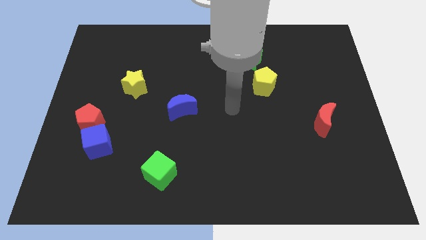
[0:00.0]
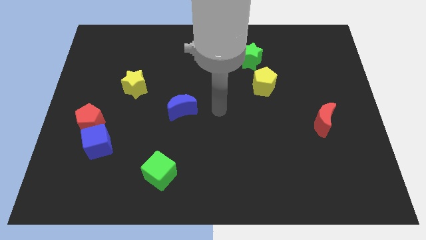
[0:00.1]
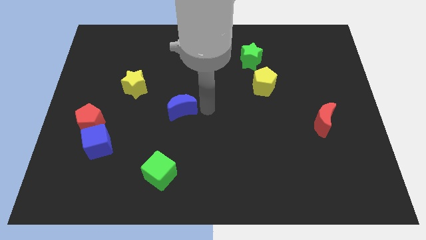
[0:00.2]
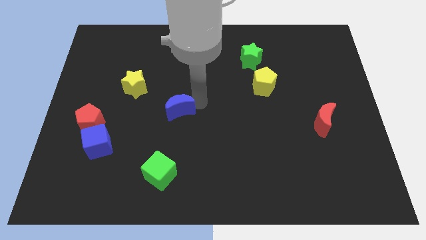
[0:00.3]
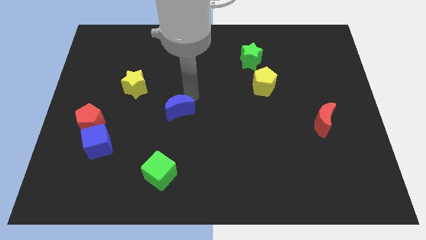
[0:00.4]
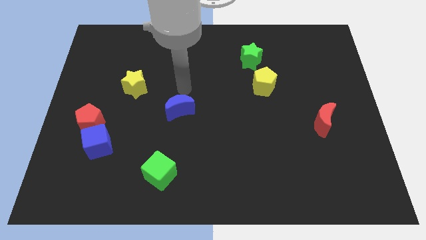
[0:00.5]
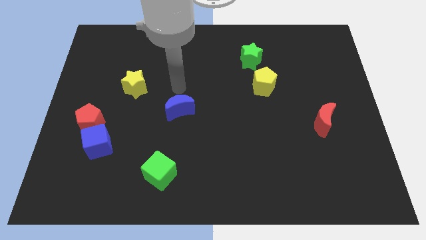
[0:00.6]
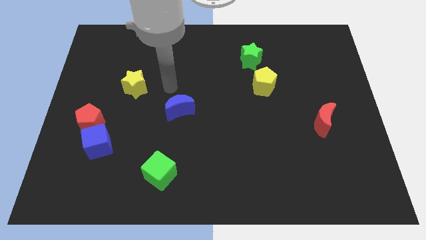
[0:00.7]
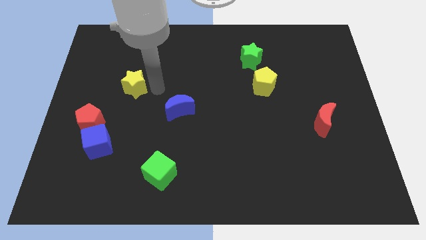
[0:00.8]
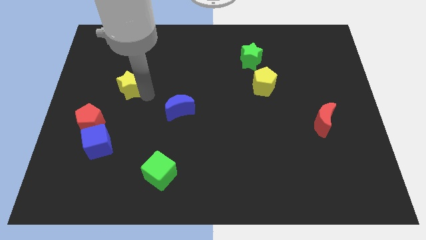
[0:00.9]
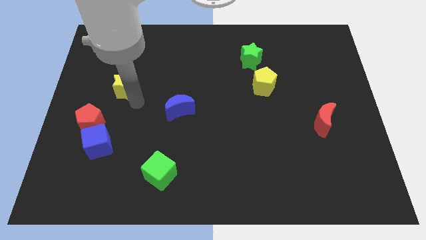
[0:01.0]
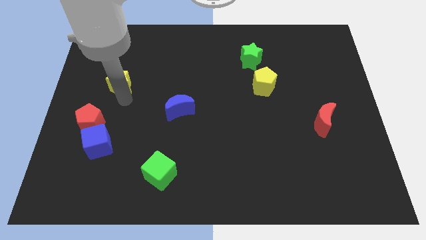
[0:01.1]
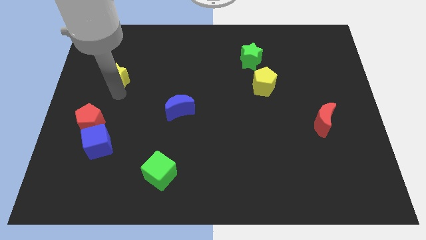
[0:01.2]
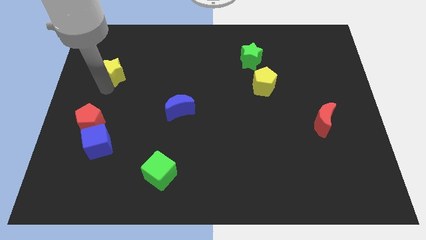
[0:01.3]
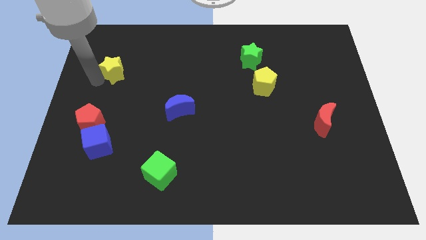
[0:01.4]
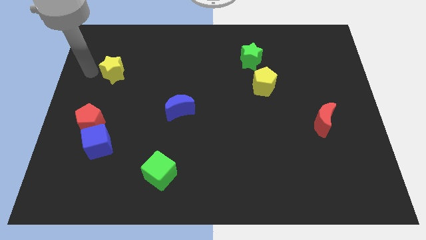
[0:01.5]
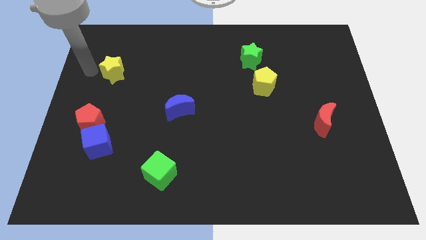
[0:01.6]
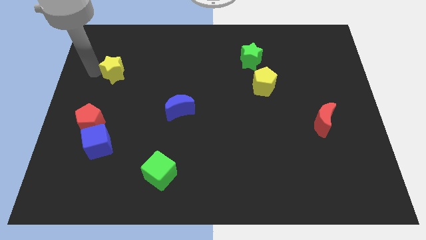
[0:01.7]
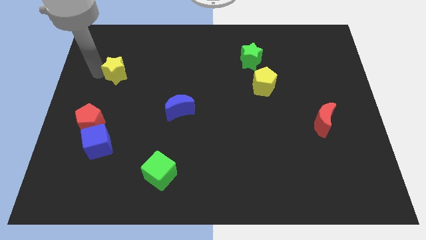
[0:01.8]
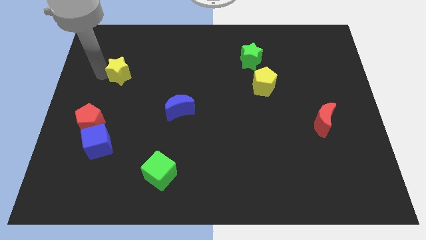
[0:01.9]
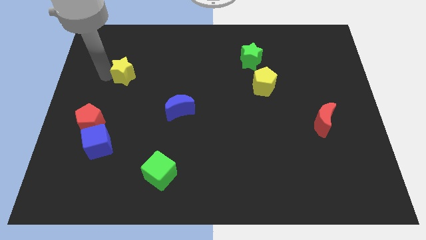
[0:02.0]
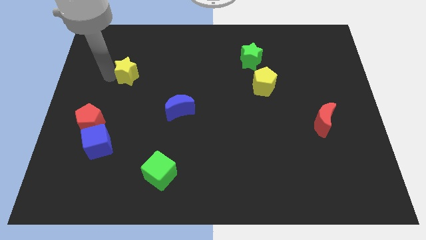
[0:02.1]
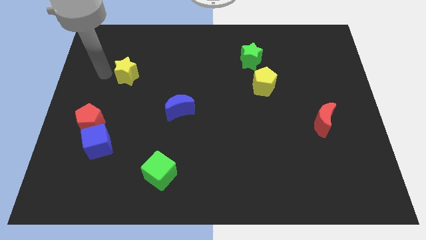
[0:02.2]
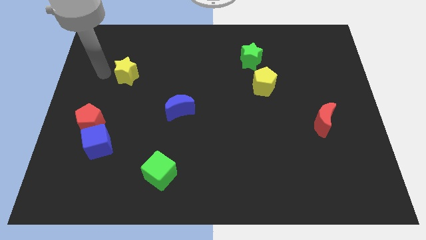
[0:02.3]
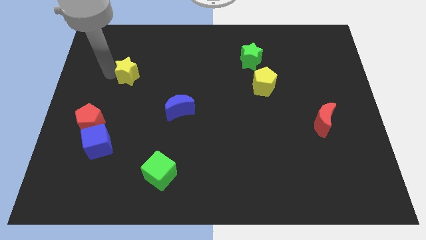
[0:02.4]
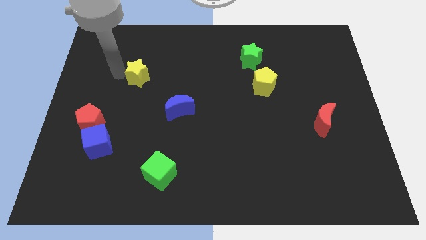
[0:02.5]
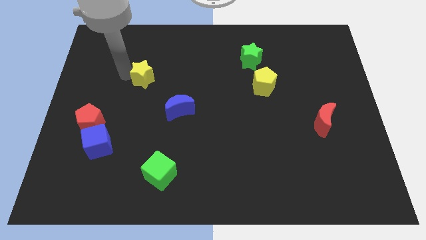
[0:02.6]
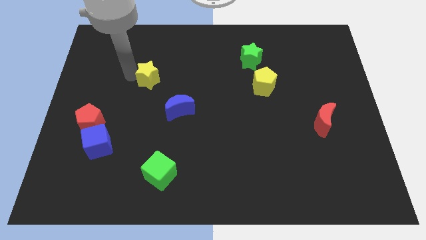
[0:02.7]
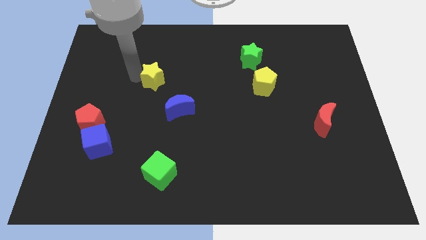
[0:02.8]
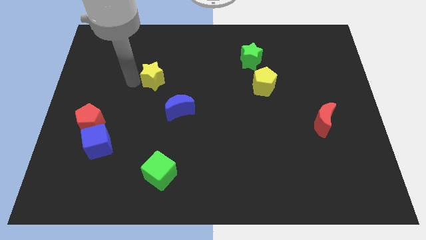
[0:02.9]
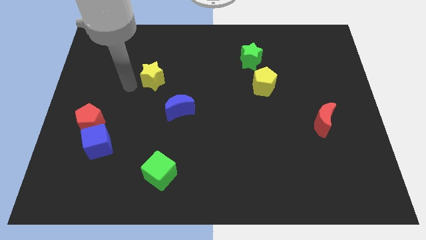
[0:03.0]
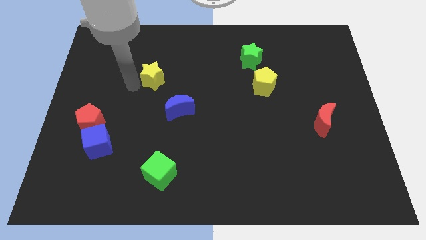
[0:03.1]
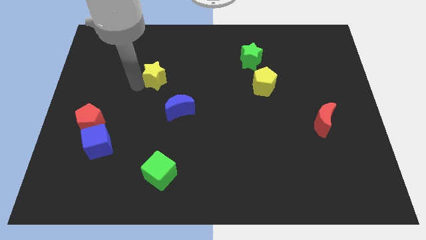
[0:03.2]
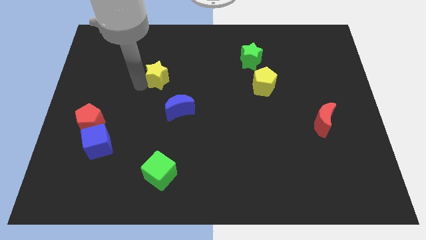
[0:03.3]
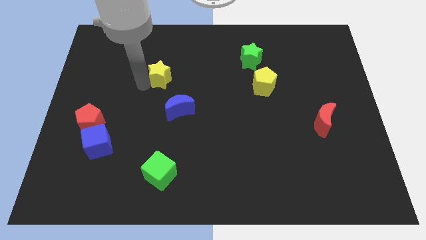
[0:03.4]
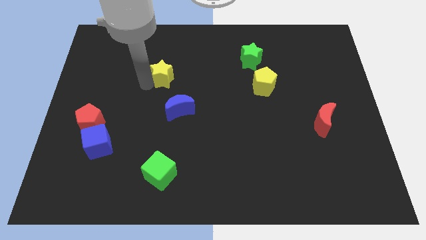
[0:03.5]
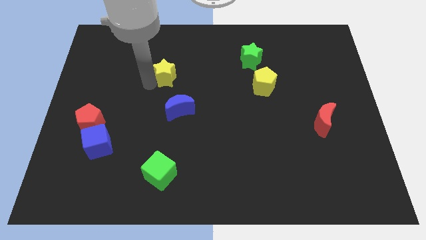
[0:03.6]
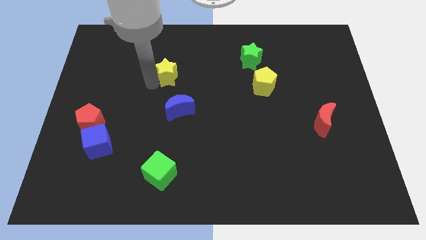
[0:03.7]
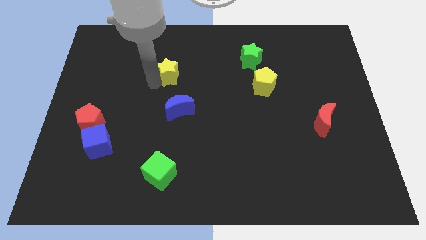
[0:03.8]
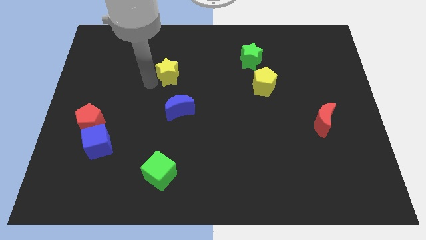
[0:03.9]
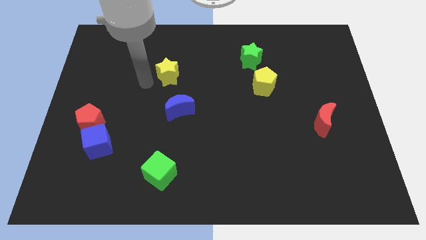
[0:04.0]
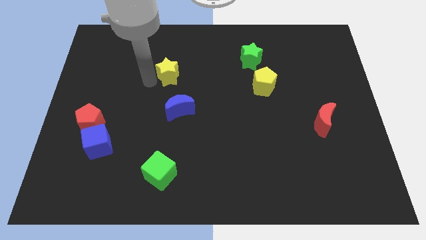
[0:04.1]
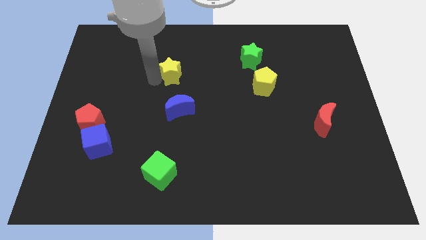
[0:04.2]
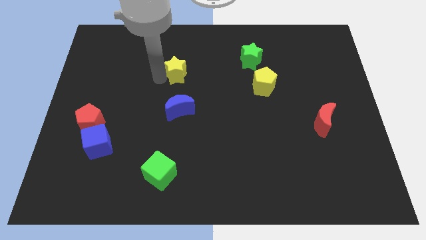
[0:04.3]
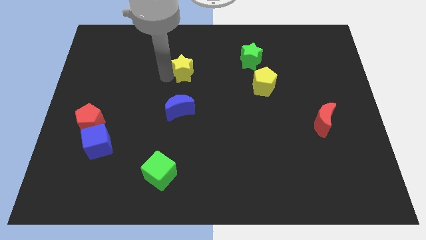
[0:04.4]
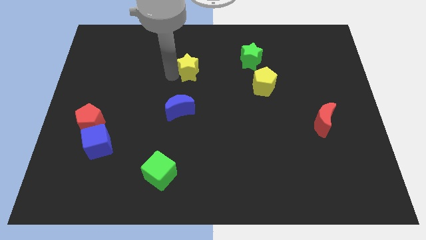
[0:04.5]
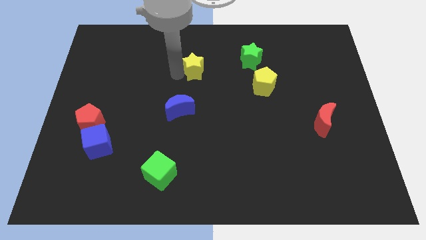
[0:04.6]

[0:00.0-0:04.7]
put the yellow star left of the green star

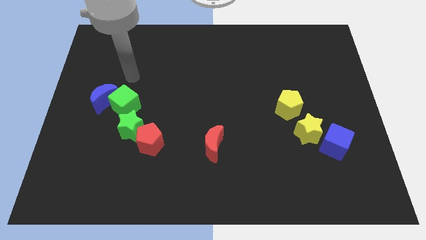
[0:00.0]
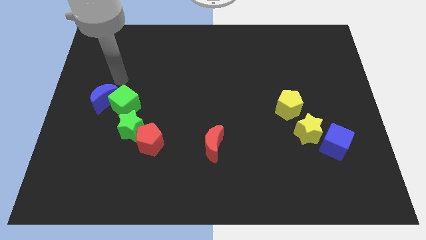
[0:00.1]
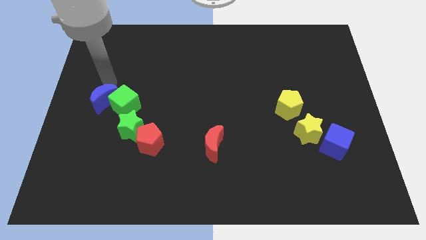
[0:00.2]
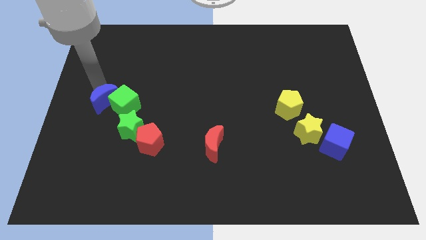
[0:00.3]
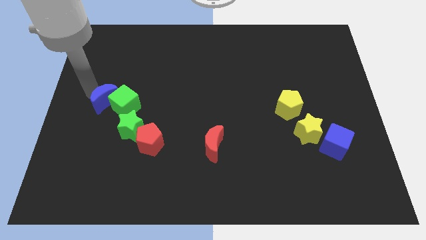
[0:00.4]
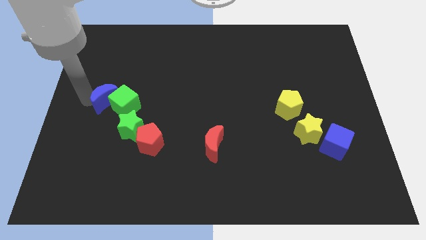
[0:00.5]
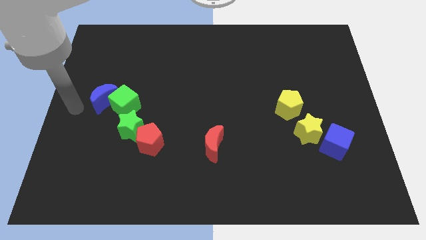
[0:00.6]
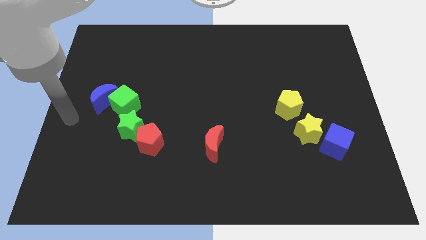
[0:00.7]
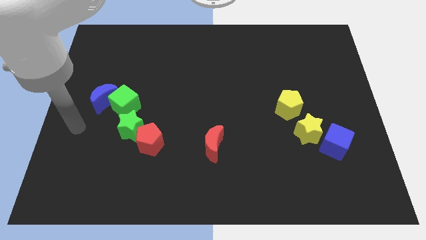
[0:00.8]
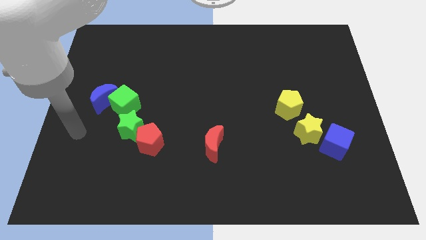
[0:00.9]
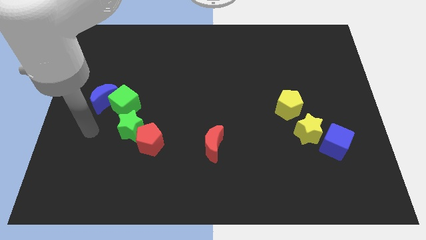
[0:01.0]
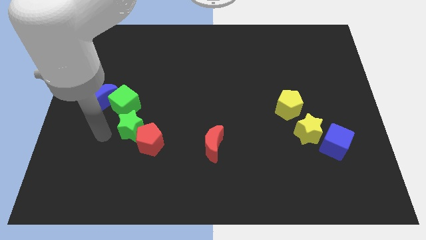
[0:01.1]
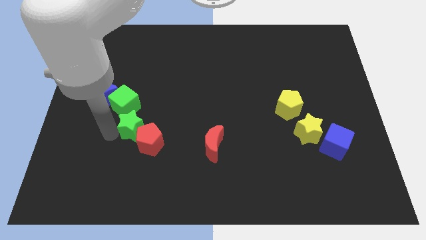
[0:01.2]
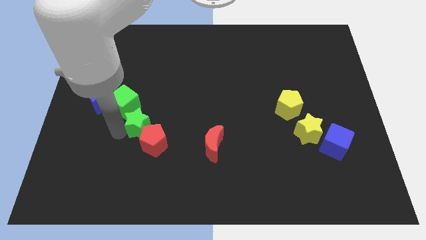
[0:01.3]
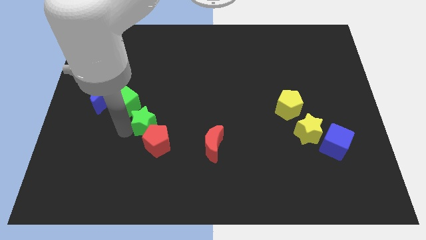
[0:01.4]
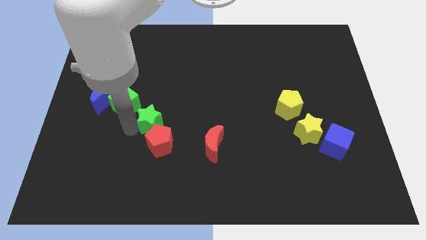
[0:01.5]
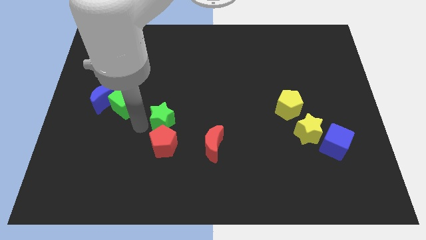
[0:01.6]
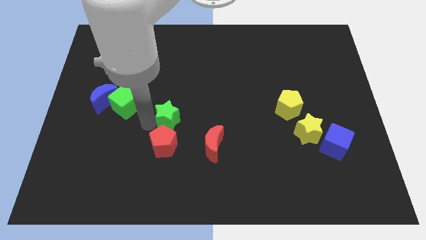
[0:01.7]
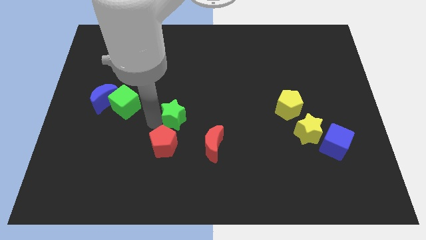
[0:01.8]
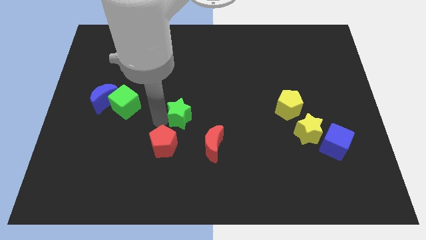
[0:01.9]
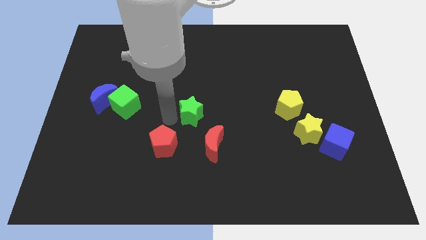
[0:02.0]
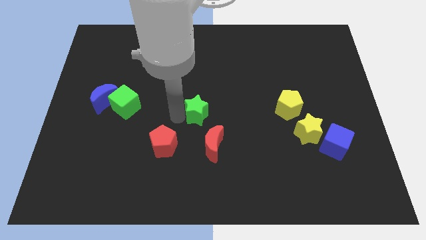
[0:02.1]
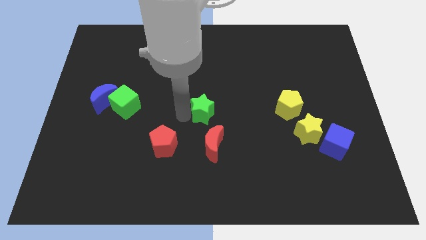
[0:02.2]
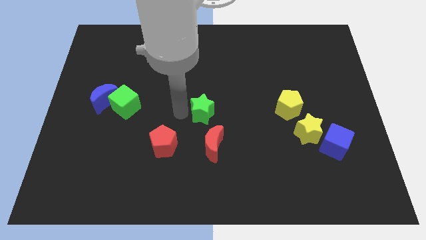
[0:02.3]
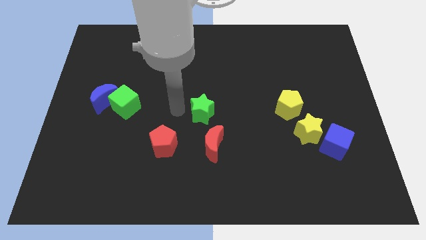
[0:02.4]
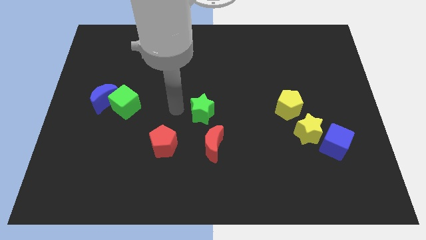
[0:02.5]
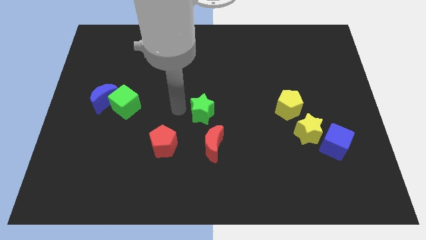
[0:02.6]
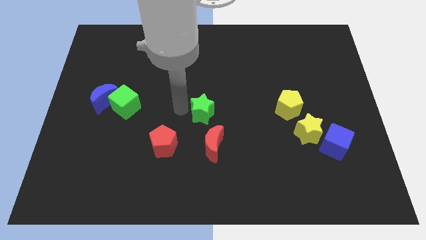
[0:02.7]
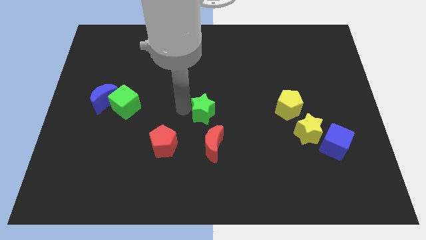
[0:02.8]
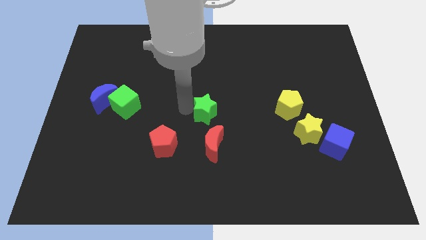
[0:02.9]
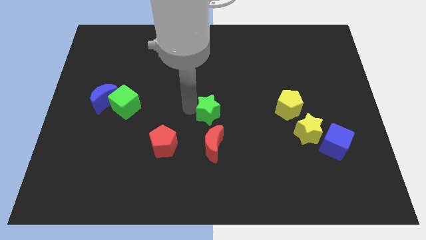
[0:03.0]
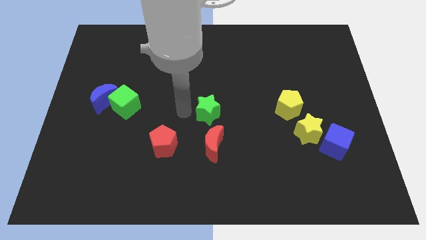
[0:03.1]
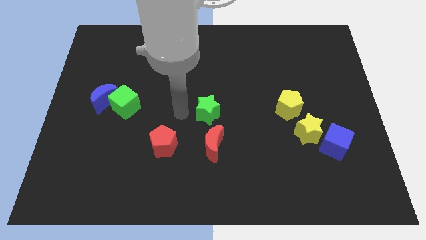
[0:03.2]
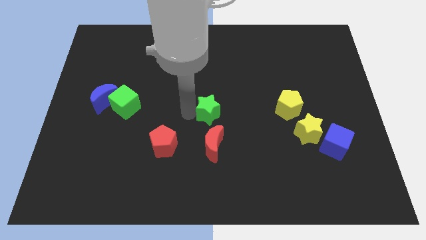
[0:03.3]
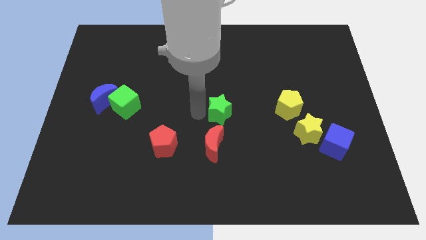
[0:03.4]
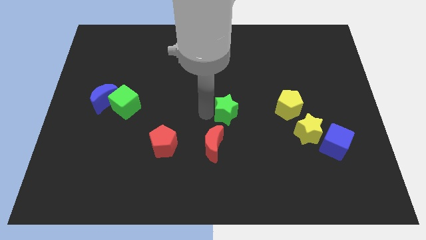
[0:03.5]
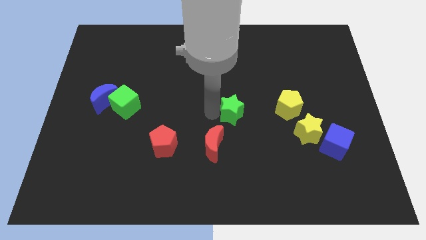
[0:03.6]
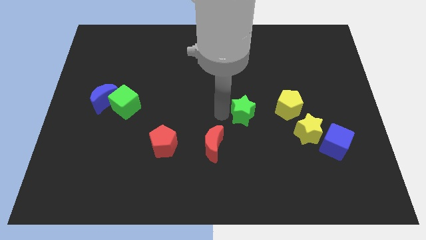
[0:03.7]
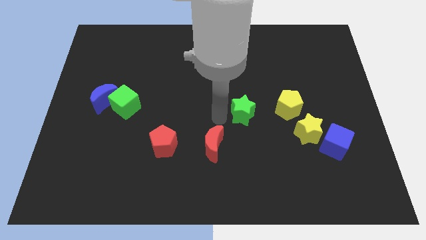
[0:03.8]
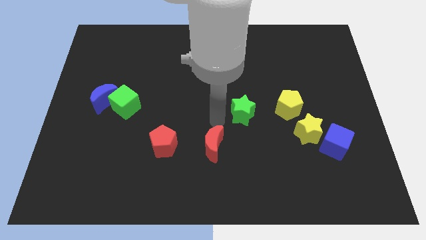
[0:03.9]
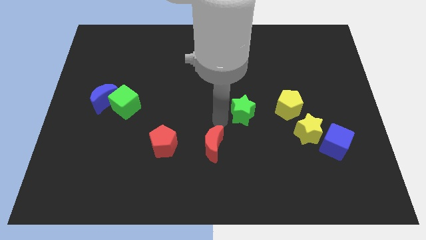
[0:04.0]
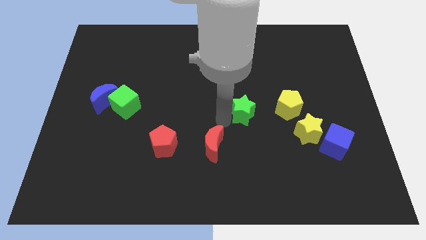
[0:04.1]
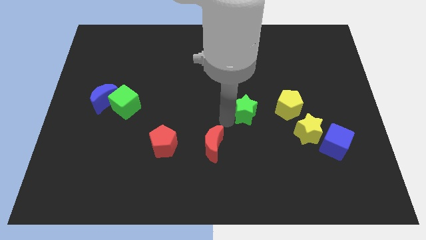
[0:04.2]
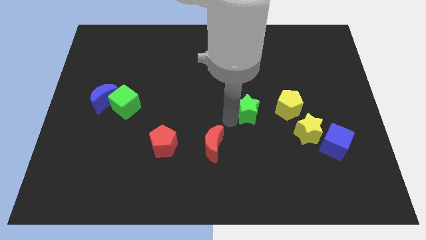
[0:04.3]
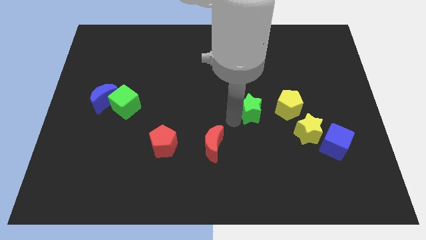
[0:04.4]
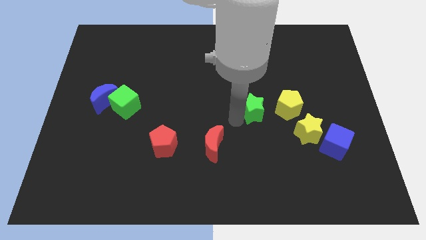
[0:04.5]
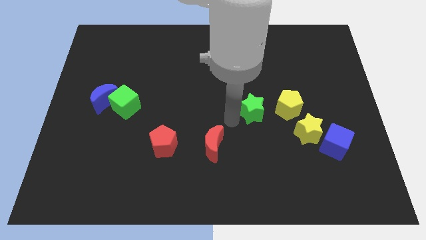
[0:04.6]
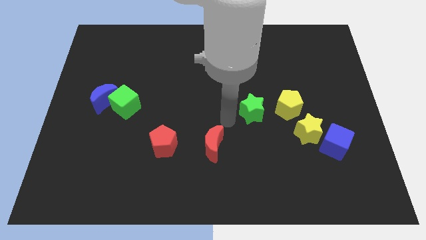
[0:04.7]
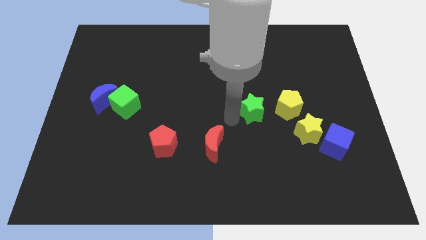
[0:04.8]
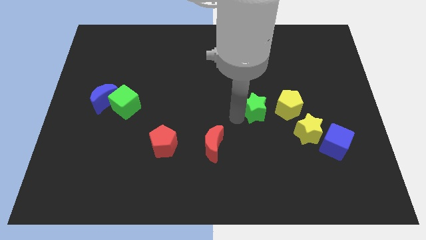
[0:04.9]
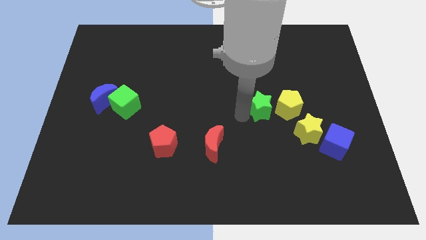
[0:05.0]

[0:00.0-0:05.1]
push the green star diagonally up and to the left of the yellow star
